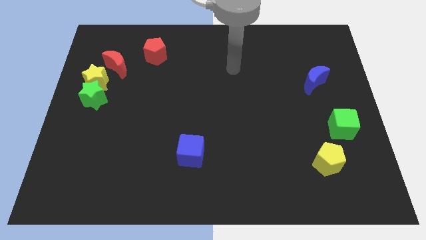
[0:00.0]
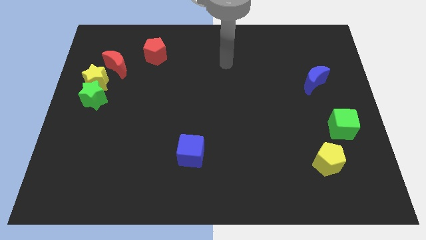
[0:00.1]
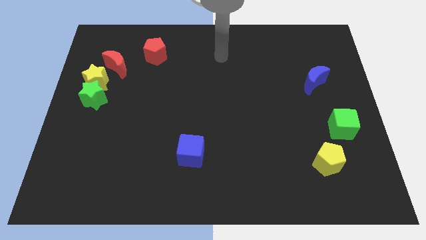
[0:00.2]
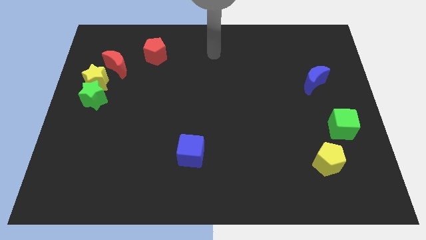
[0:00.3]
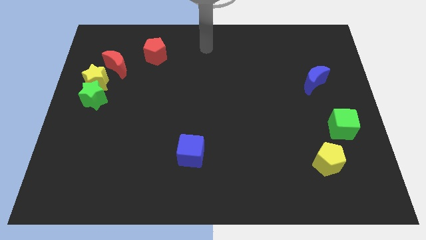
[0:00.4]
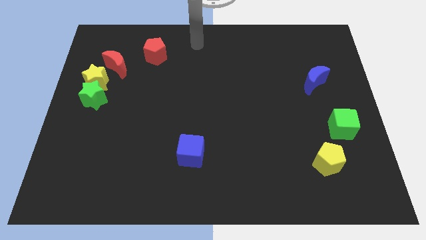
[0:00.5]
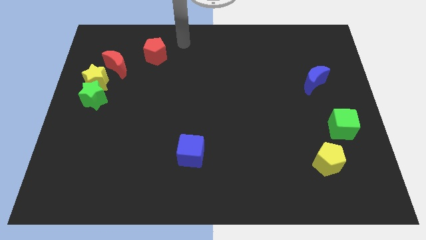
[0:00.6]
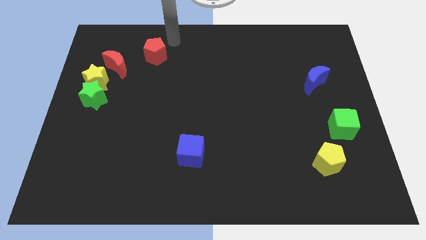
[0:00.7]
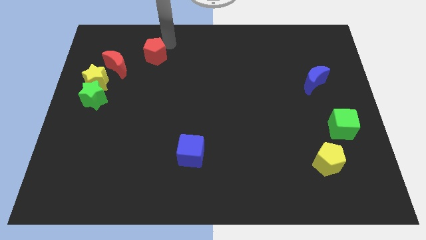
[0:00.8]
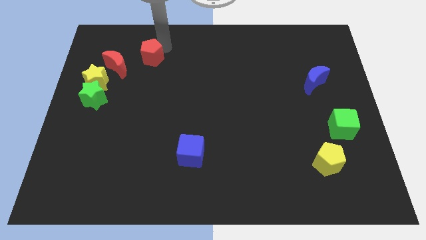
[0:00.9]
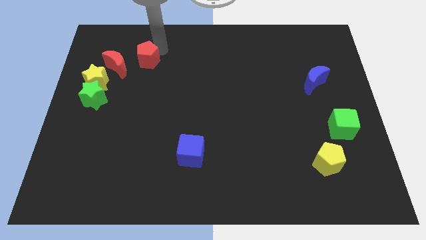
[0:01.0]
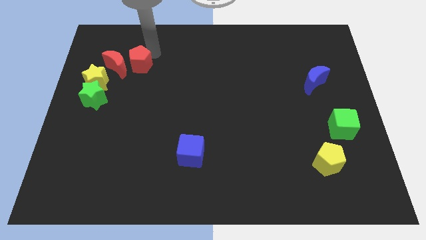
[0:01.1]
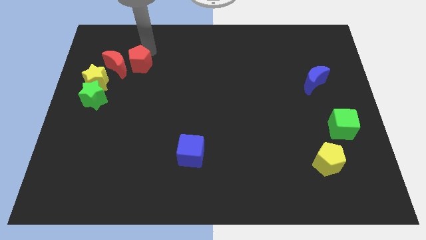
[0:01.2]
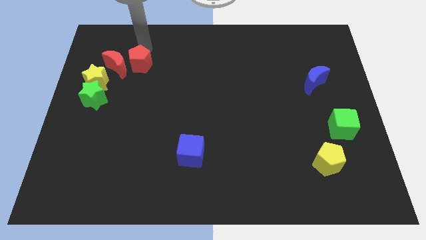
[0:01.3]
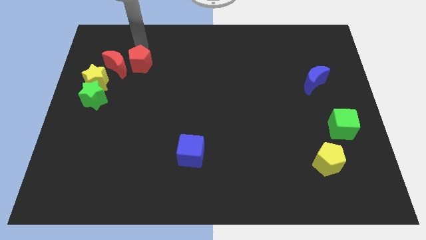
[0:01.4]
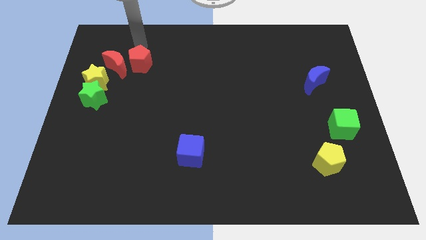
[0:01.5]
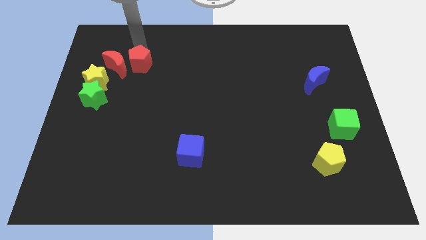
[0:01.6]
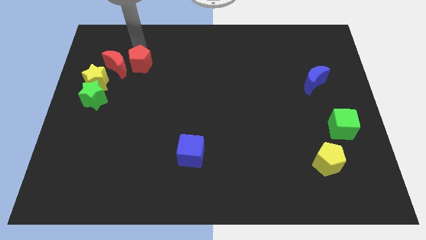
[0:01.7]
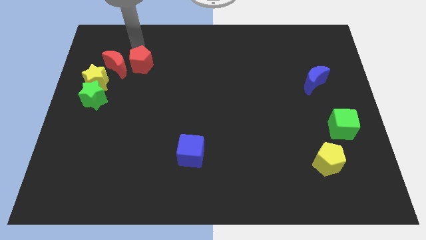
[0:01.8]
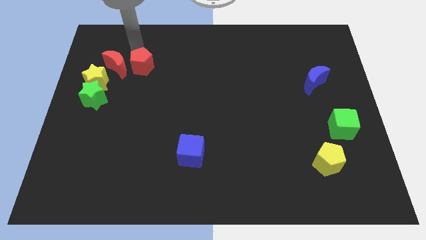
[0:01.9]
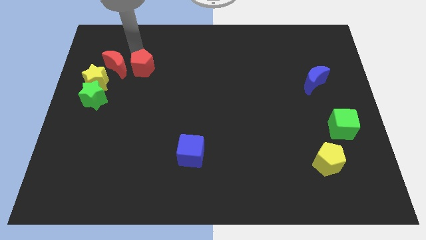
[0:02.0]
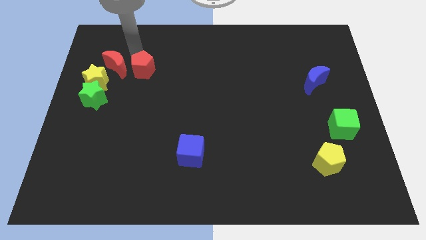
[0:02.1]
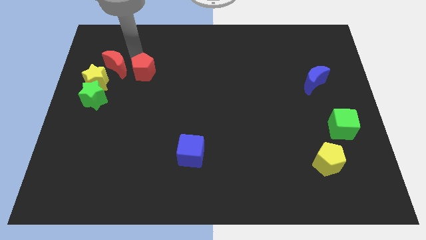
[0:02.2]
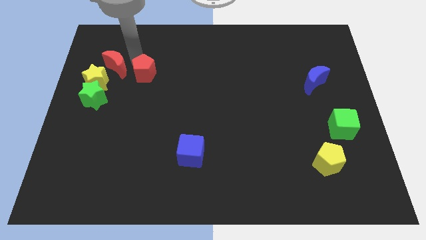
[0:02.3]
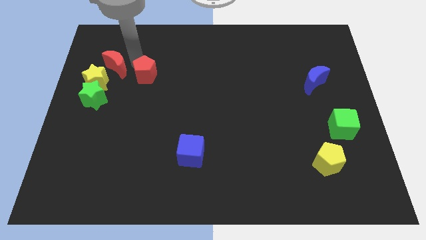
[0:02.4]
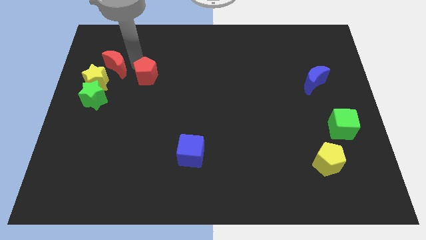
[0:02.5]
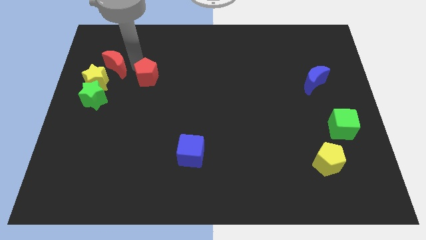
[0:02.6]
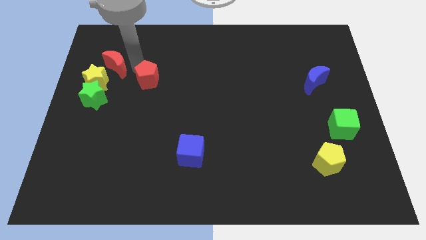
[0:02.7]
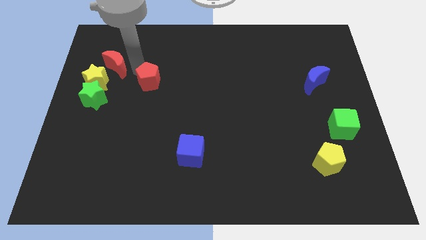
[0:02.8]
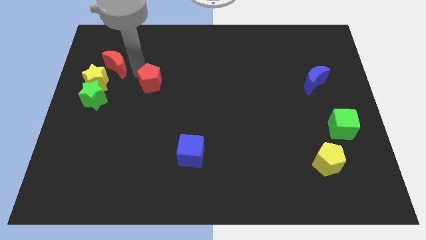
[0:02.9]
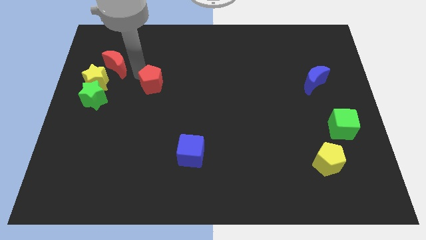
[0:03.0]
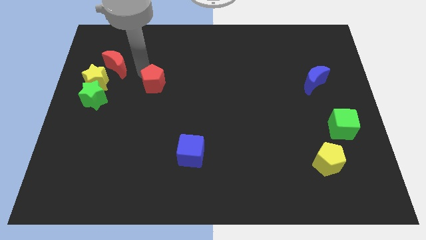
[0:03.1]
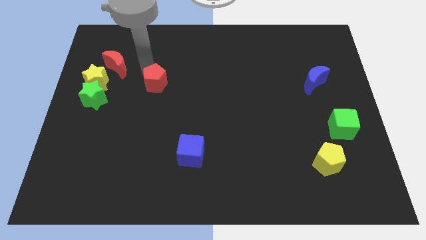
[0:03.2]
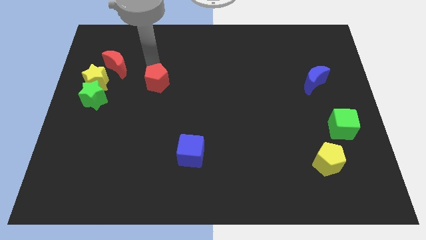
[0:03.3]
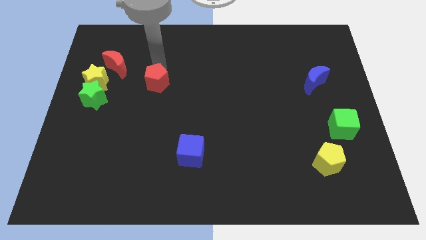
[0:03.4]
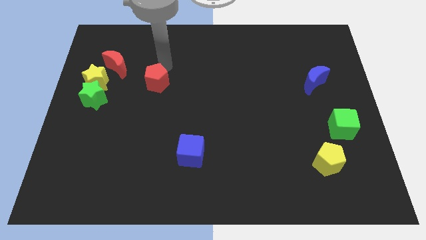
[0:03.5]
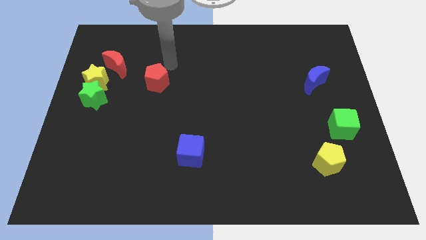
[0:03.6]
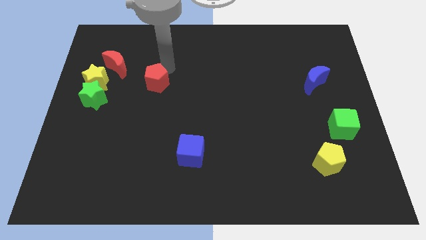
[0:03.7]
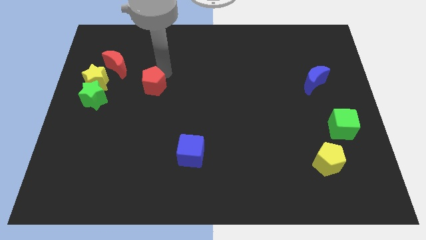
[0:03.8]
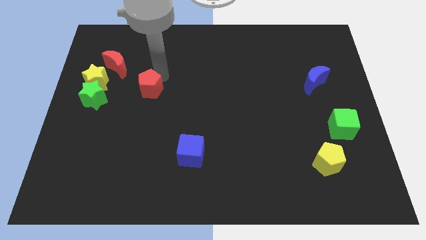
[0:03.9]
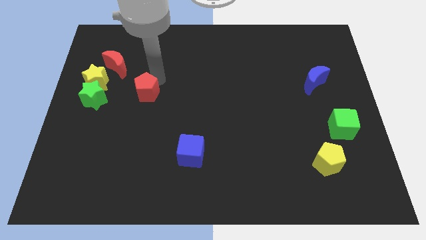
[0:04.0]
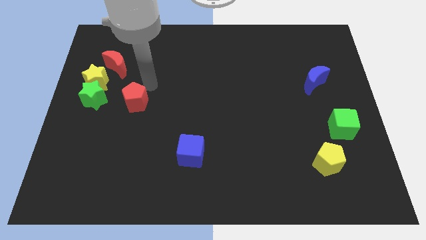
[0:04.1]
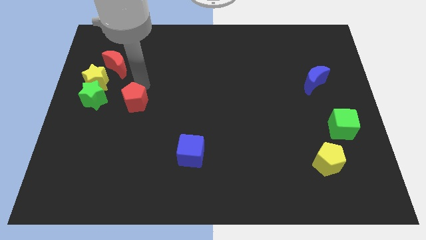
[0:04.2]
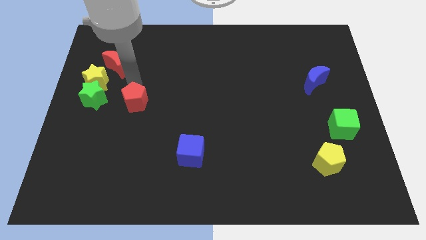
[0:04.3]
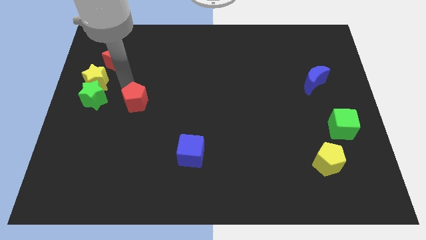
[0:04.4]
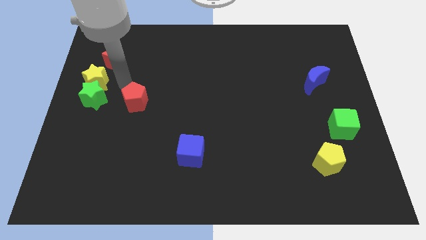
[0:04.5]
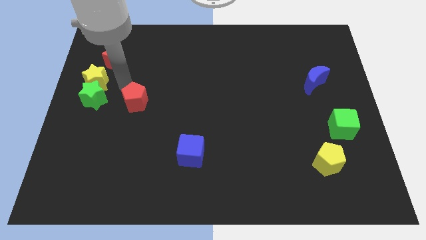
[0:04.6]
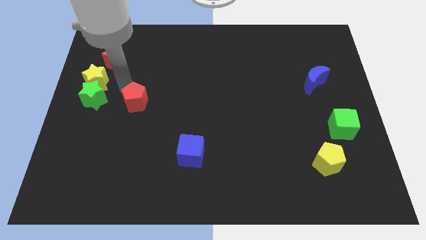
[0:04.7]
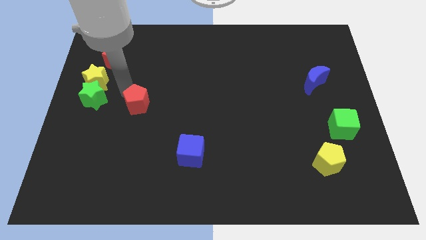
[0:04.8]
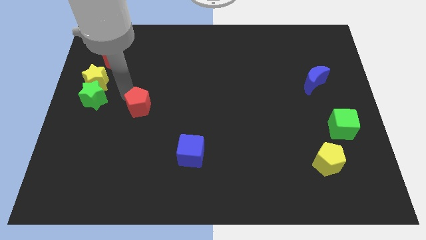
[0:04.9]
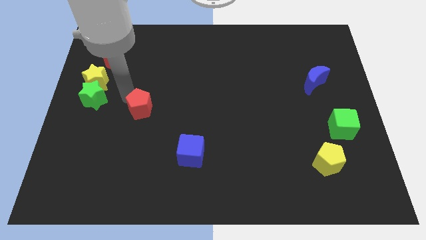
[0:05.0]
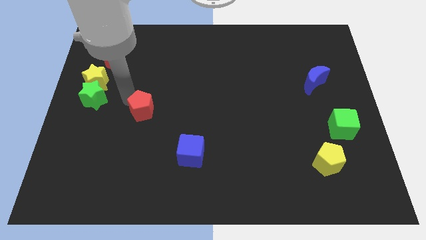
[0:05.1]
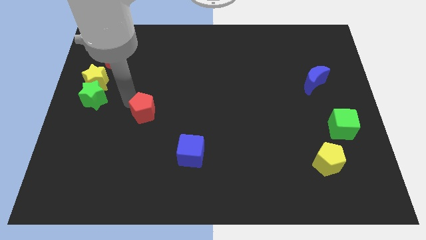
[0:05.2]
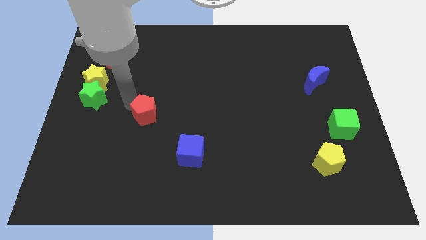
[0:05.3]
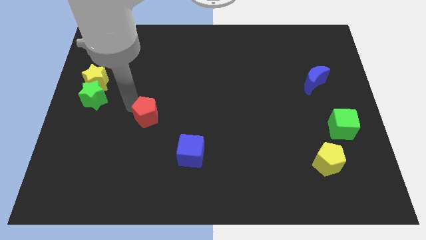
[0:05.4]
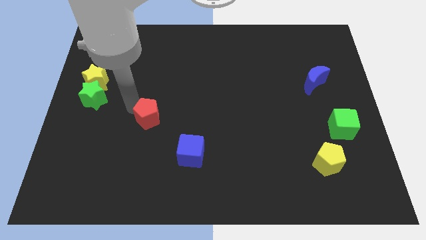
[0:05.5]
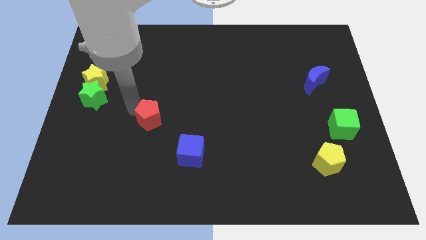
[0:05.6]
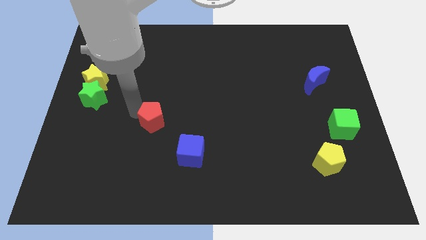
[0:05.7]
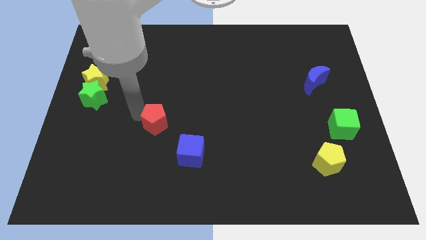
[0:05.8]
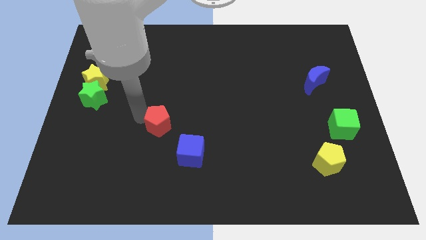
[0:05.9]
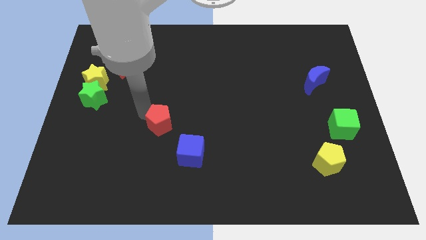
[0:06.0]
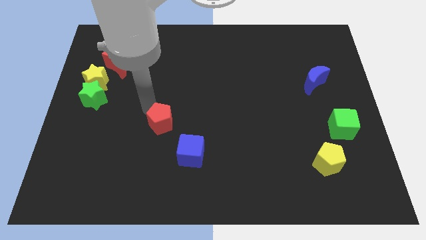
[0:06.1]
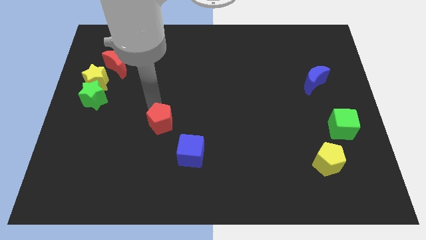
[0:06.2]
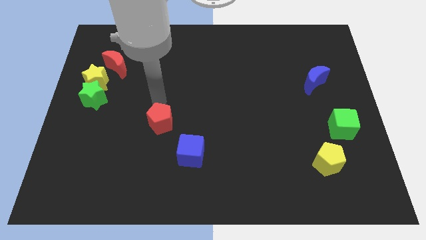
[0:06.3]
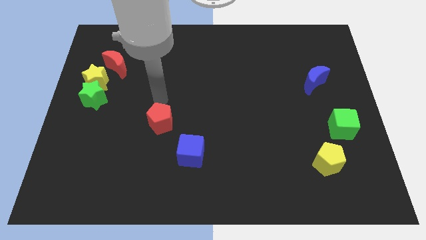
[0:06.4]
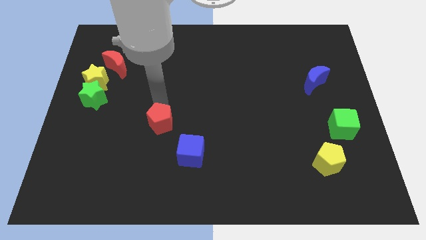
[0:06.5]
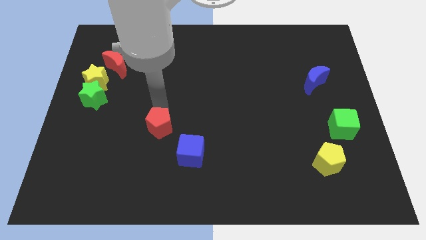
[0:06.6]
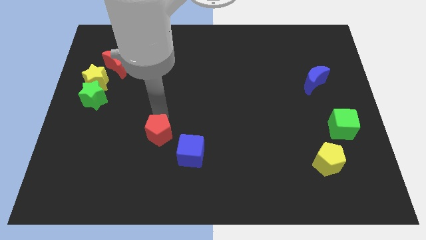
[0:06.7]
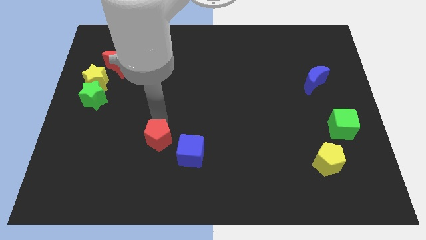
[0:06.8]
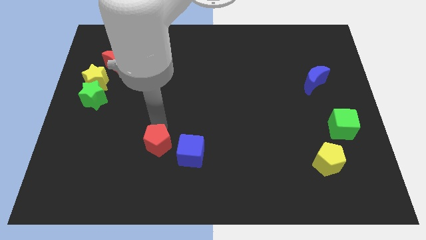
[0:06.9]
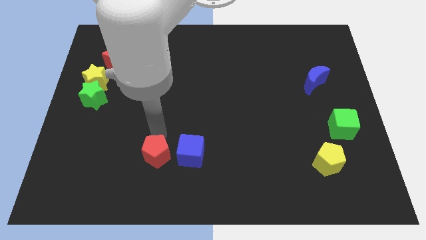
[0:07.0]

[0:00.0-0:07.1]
move the red pentagon to the bottom left side of the blue cube
